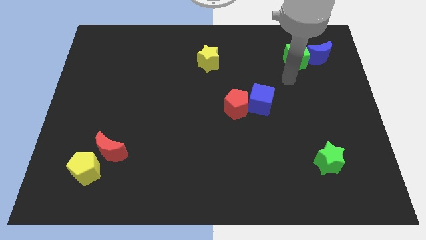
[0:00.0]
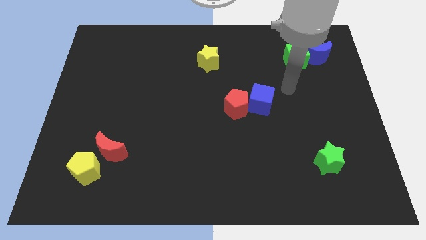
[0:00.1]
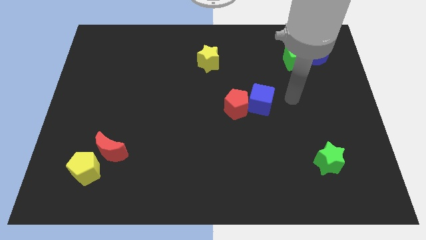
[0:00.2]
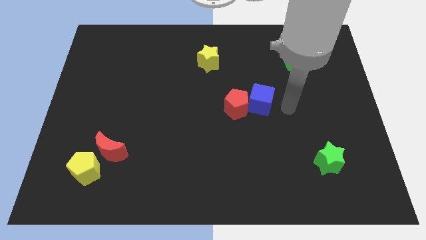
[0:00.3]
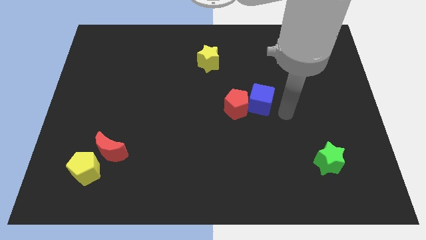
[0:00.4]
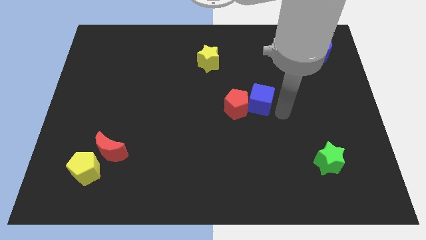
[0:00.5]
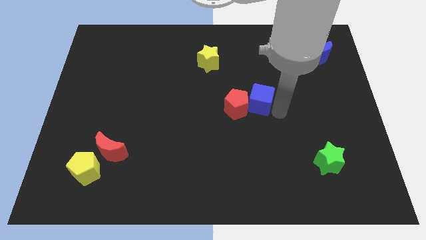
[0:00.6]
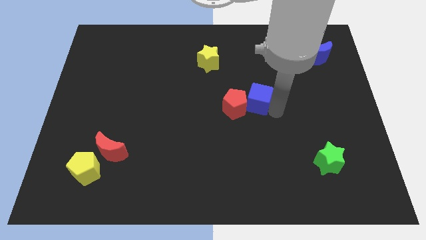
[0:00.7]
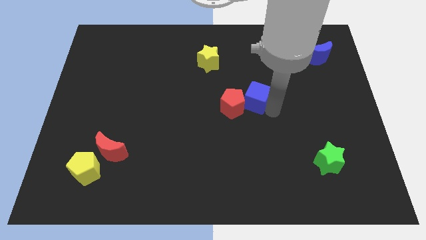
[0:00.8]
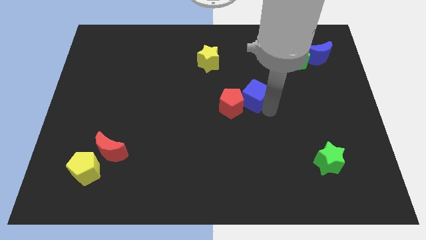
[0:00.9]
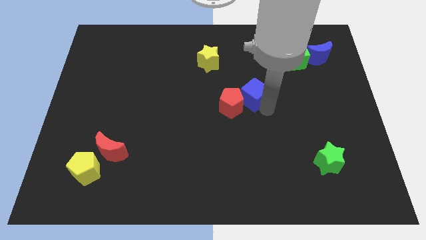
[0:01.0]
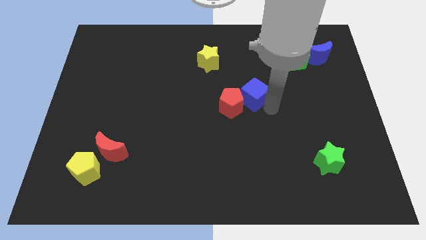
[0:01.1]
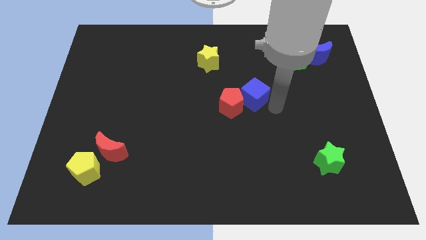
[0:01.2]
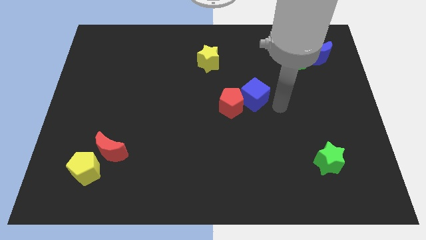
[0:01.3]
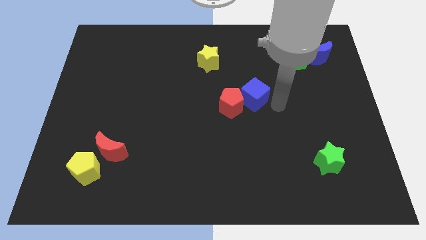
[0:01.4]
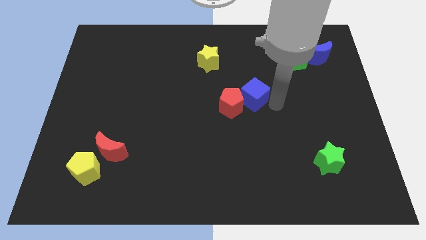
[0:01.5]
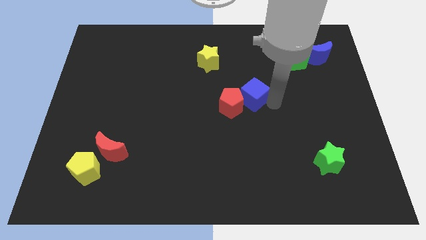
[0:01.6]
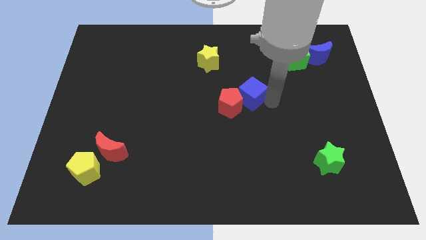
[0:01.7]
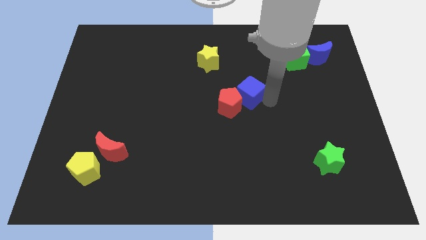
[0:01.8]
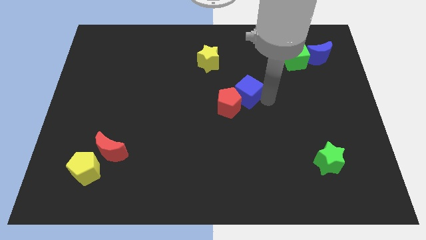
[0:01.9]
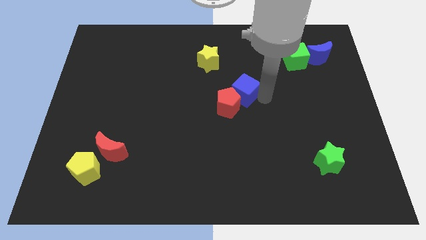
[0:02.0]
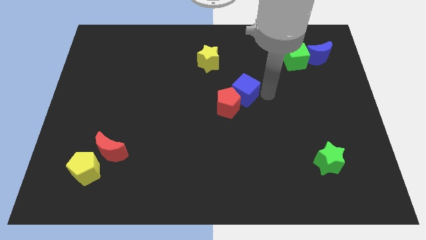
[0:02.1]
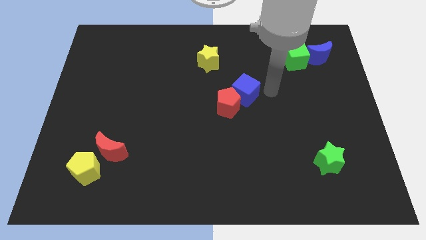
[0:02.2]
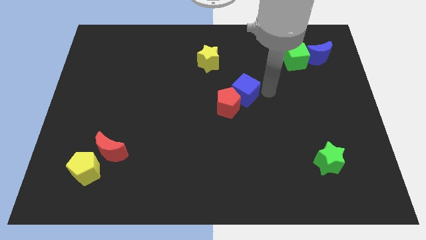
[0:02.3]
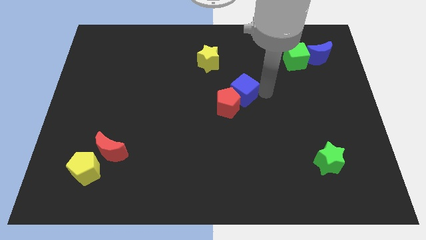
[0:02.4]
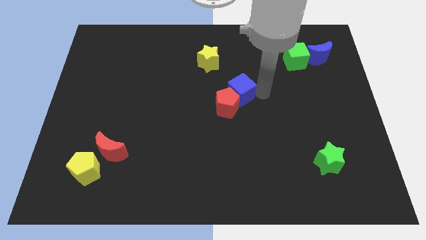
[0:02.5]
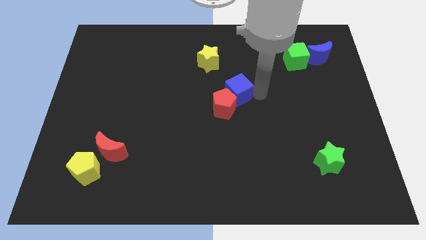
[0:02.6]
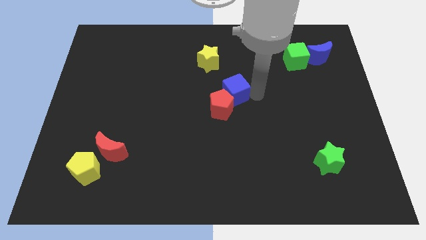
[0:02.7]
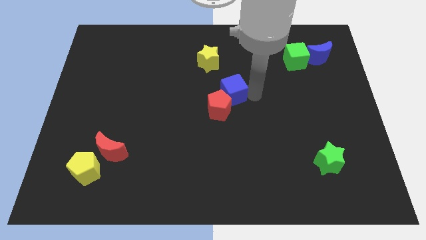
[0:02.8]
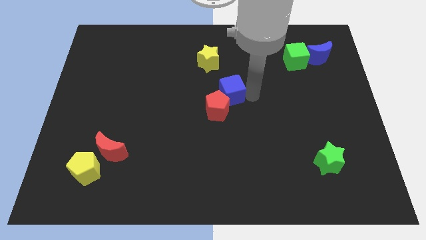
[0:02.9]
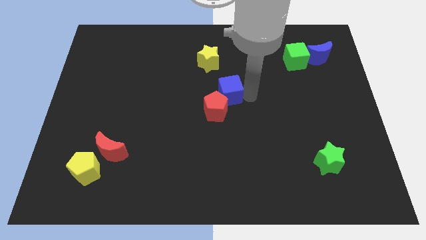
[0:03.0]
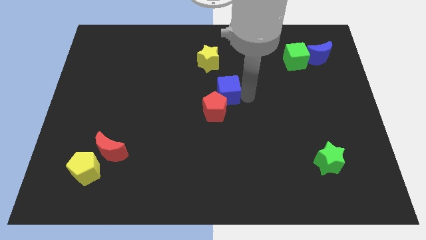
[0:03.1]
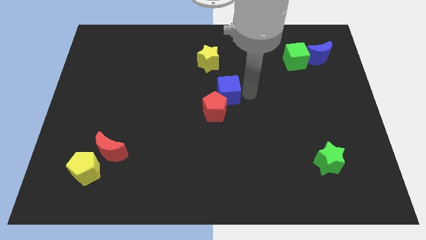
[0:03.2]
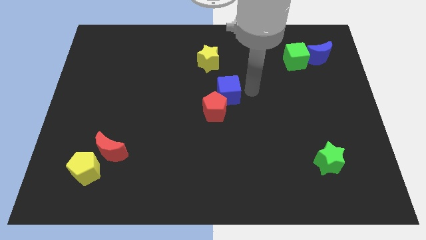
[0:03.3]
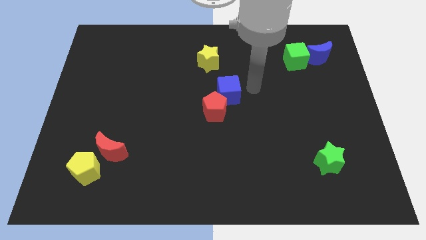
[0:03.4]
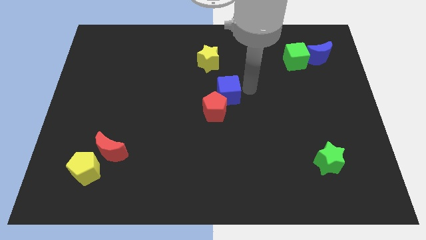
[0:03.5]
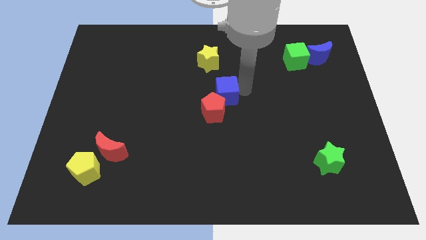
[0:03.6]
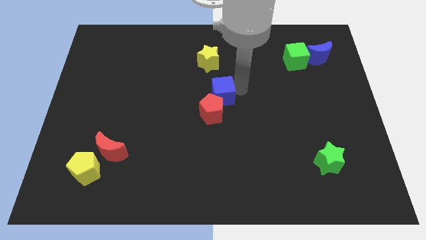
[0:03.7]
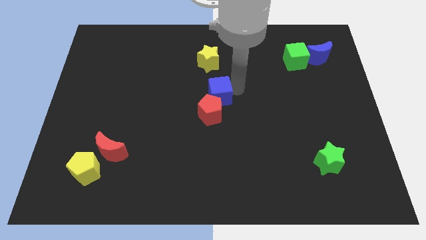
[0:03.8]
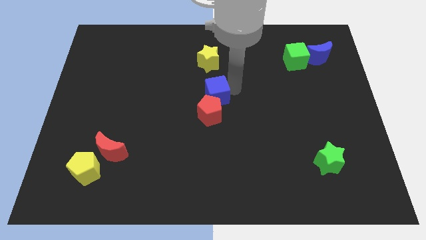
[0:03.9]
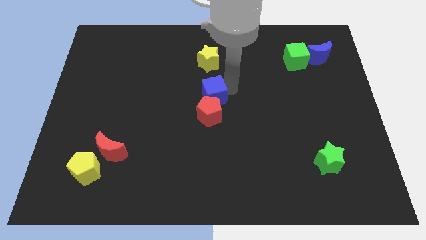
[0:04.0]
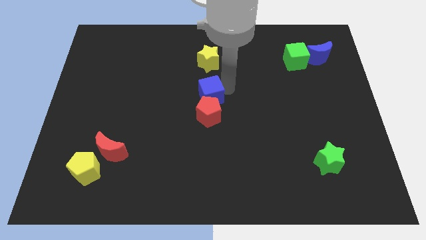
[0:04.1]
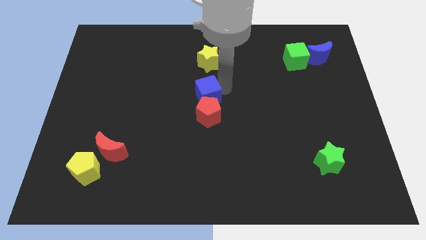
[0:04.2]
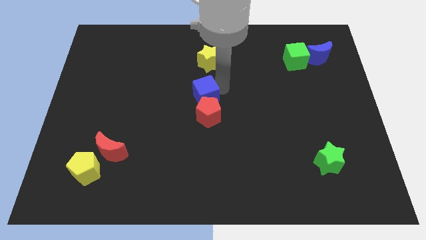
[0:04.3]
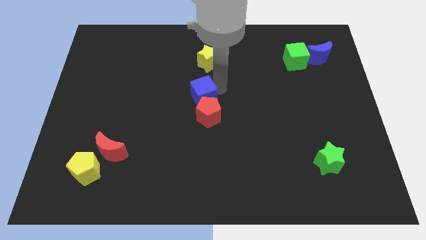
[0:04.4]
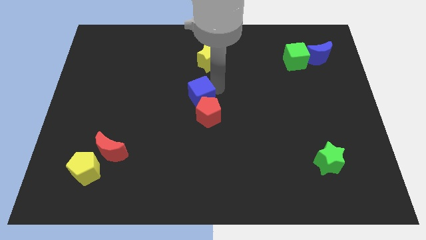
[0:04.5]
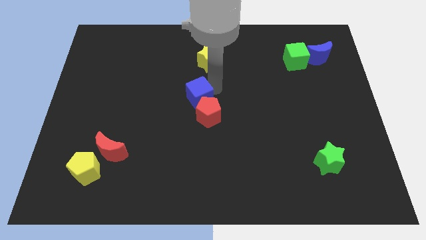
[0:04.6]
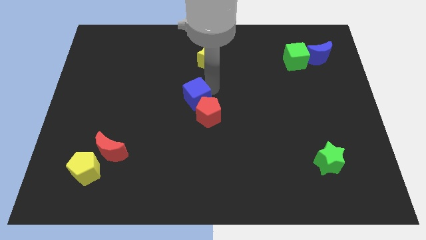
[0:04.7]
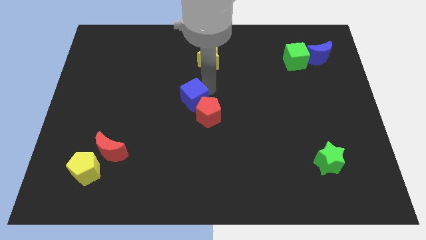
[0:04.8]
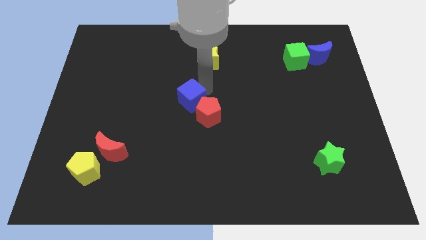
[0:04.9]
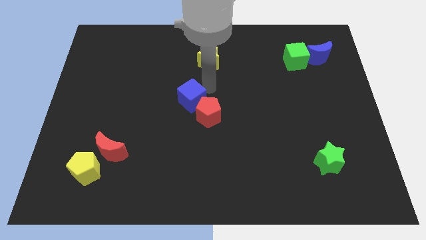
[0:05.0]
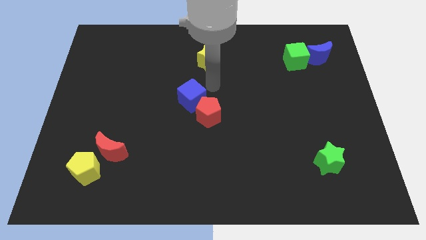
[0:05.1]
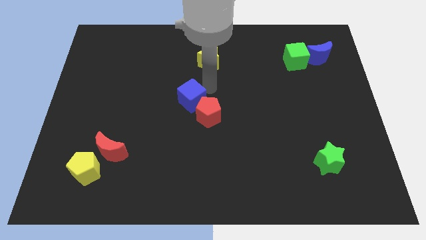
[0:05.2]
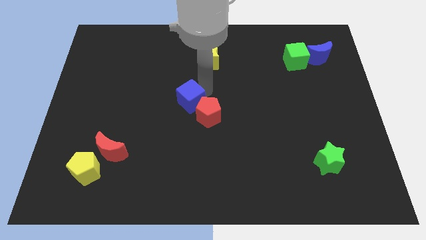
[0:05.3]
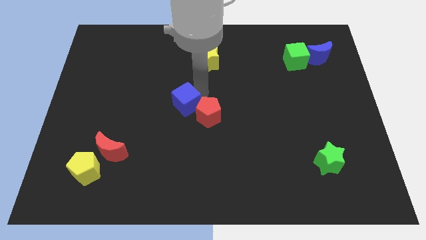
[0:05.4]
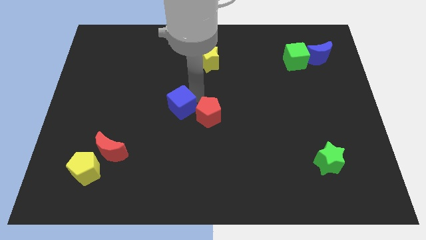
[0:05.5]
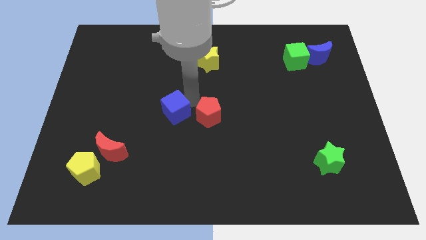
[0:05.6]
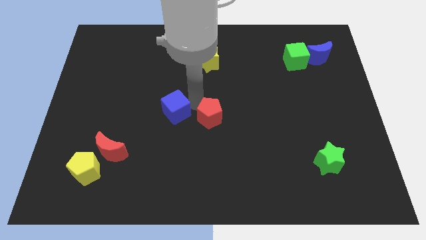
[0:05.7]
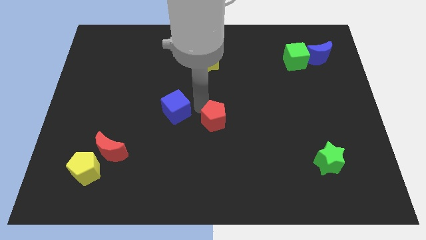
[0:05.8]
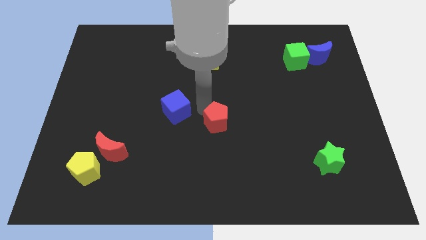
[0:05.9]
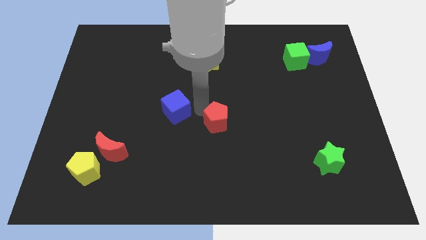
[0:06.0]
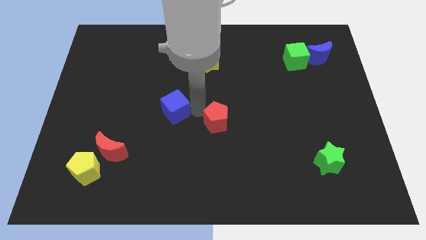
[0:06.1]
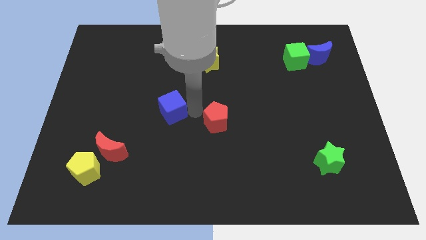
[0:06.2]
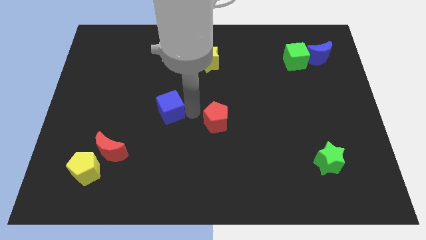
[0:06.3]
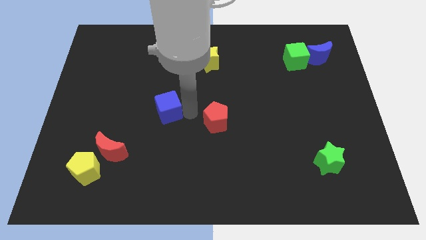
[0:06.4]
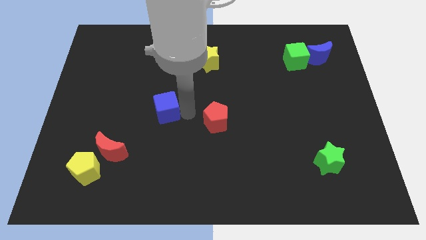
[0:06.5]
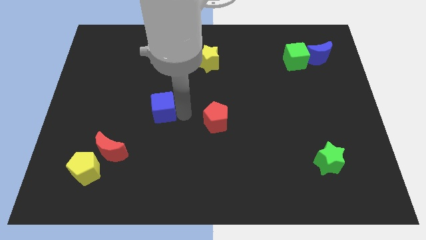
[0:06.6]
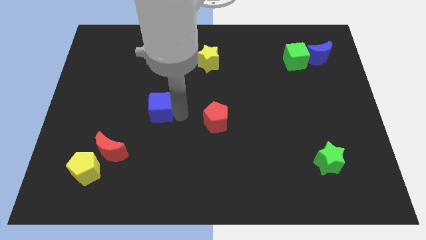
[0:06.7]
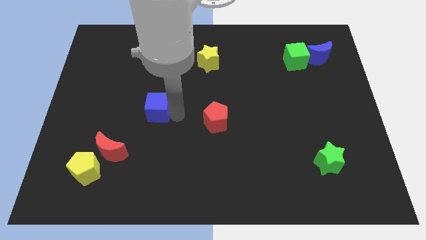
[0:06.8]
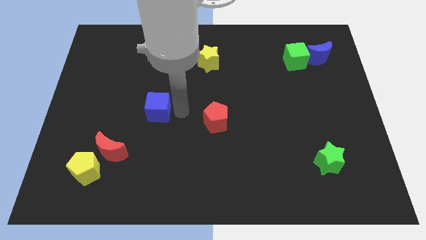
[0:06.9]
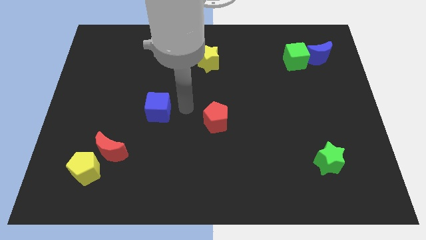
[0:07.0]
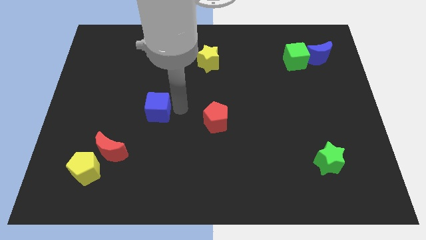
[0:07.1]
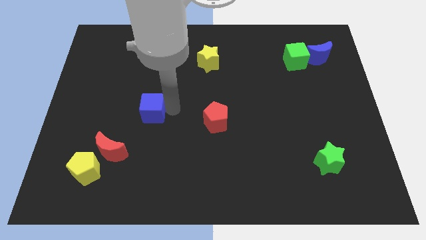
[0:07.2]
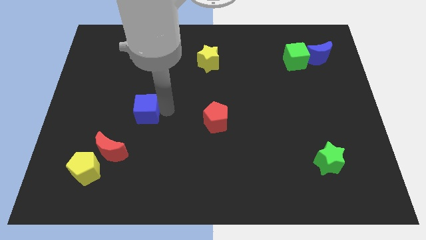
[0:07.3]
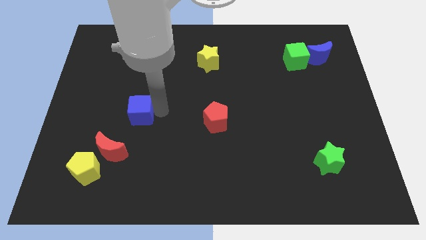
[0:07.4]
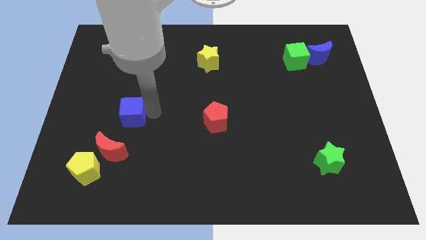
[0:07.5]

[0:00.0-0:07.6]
push the blue cube above the red moon
